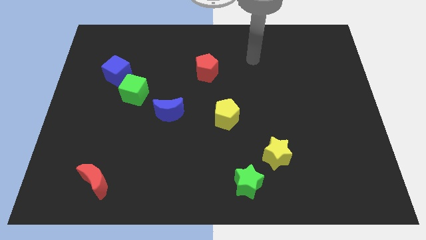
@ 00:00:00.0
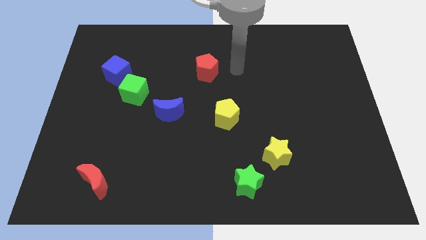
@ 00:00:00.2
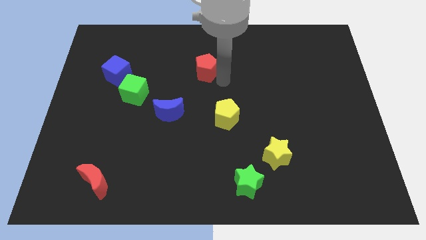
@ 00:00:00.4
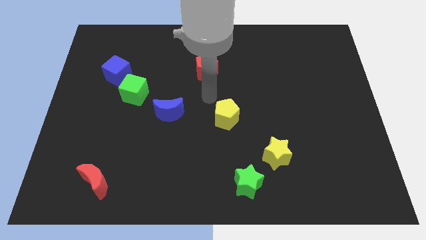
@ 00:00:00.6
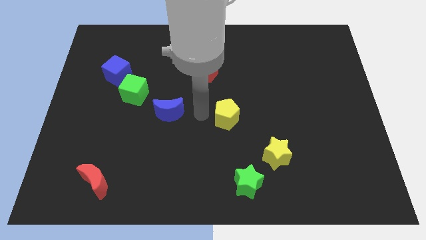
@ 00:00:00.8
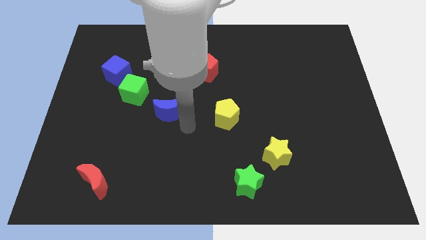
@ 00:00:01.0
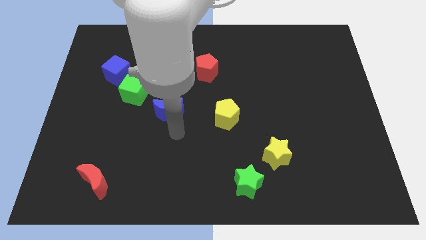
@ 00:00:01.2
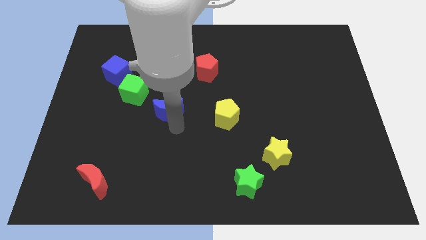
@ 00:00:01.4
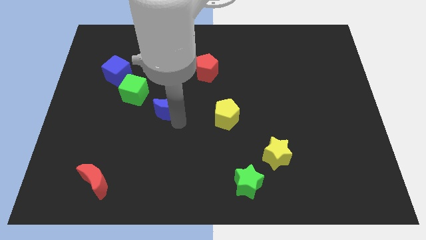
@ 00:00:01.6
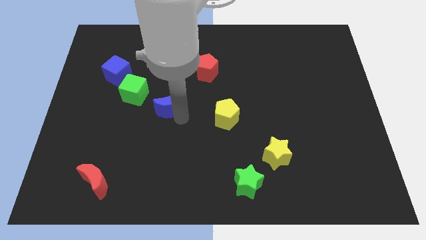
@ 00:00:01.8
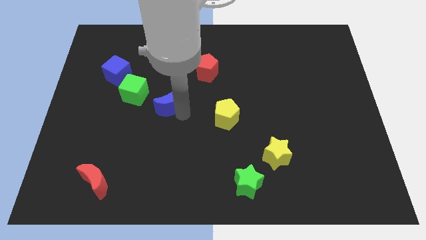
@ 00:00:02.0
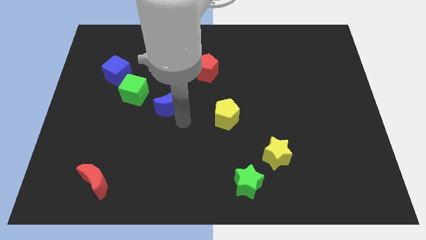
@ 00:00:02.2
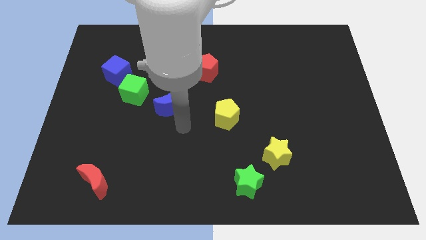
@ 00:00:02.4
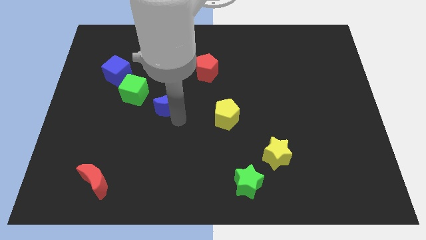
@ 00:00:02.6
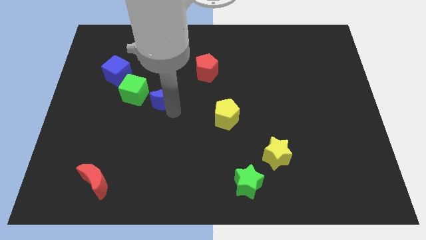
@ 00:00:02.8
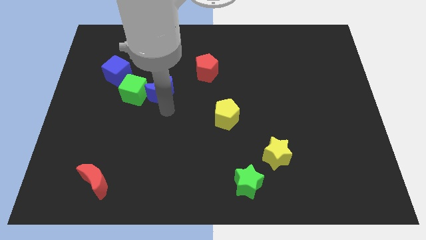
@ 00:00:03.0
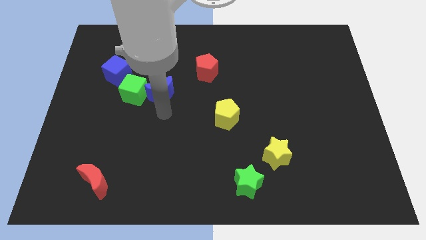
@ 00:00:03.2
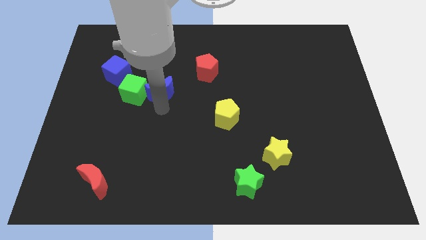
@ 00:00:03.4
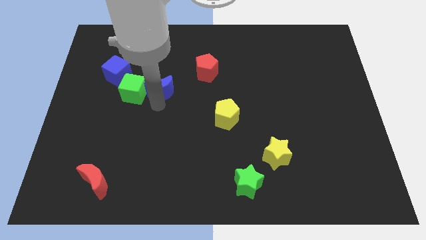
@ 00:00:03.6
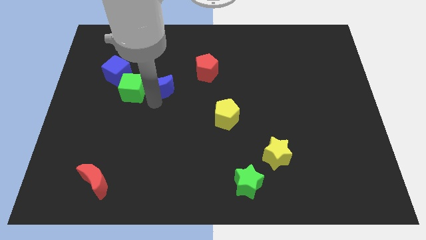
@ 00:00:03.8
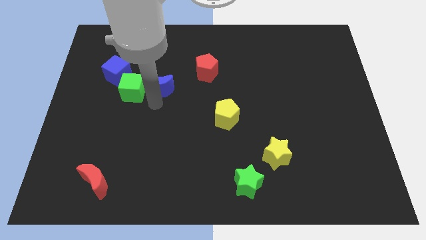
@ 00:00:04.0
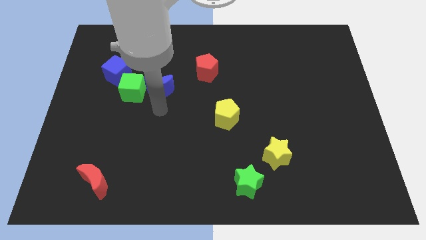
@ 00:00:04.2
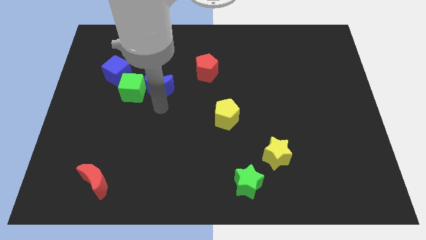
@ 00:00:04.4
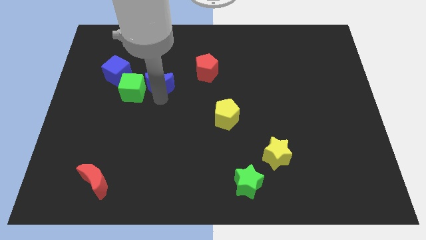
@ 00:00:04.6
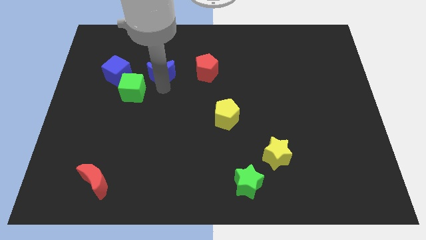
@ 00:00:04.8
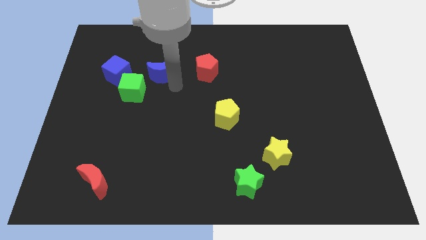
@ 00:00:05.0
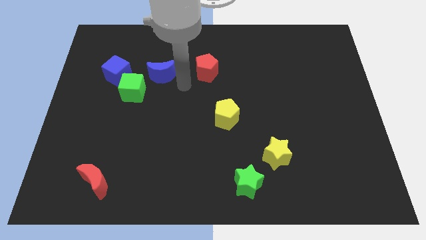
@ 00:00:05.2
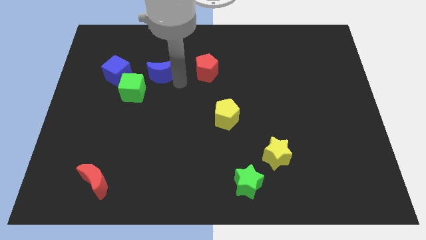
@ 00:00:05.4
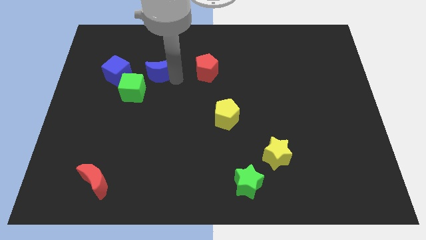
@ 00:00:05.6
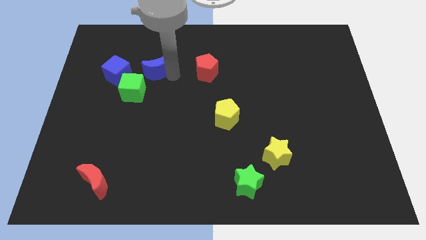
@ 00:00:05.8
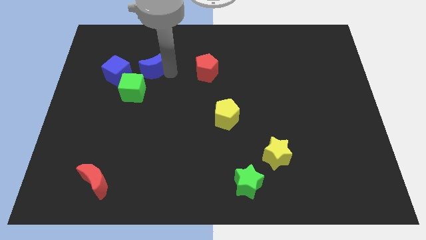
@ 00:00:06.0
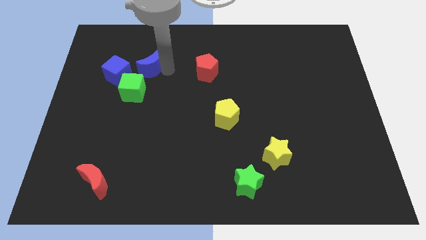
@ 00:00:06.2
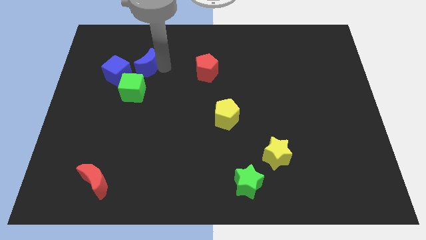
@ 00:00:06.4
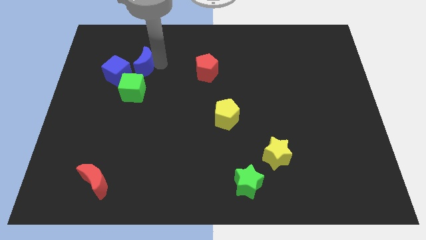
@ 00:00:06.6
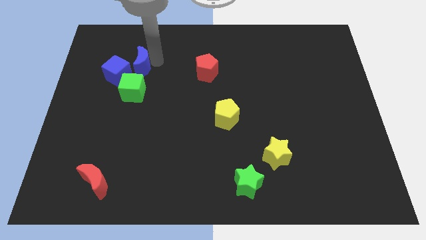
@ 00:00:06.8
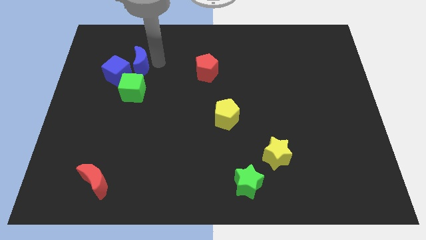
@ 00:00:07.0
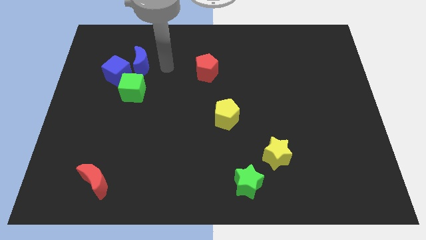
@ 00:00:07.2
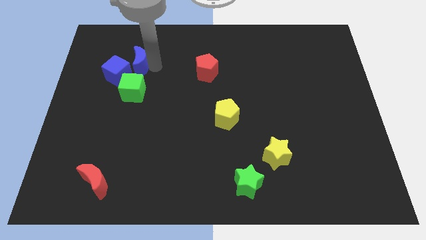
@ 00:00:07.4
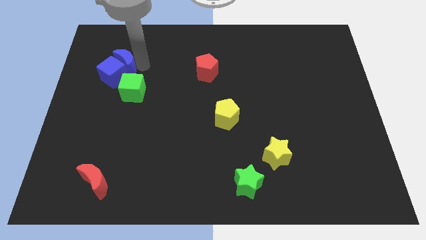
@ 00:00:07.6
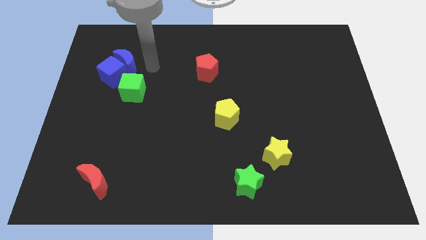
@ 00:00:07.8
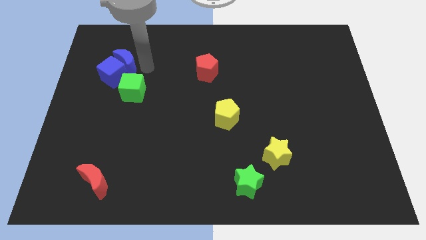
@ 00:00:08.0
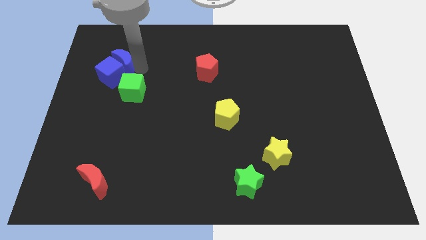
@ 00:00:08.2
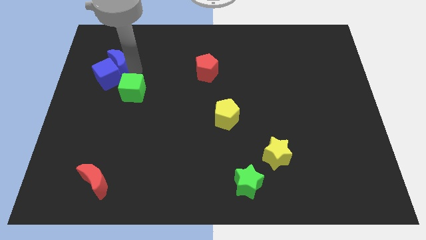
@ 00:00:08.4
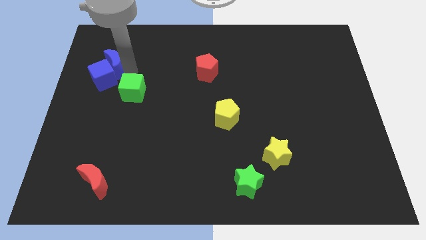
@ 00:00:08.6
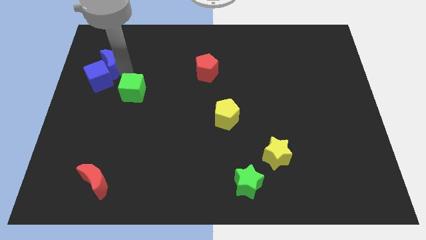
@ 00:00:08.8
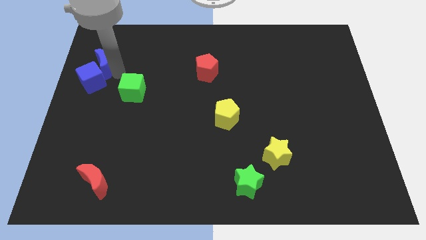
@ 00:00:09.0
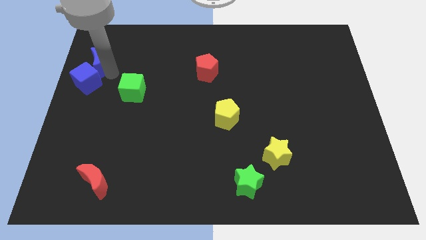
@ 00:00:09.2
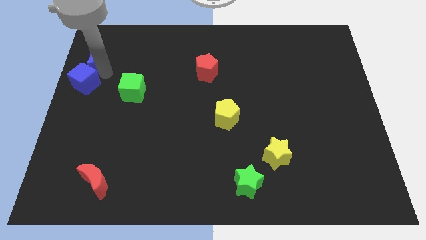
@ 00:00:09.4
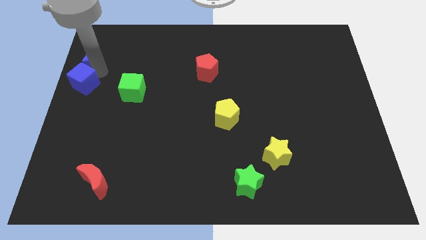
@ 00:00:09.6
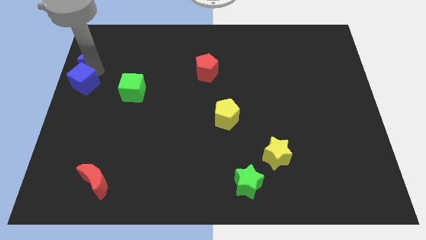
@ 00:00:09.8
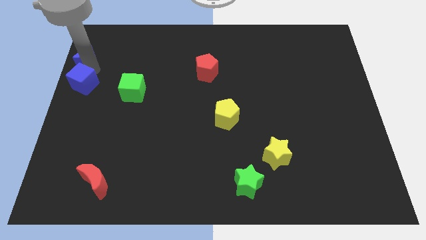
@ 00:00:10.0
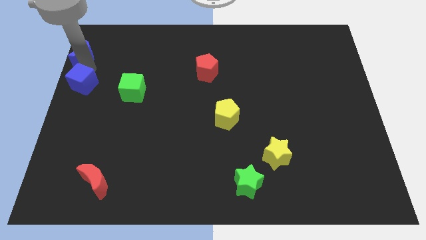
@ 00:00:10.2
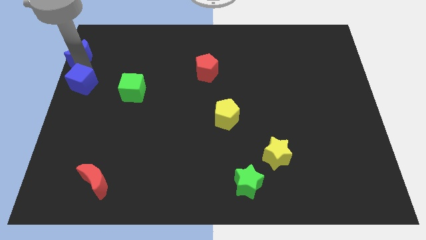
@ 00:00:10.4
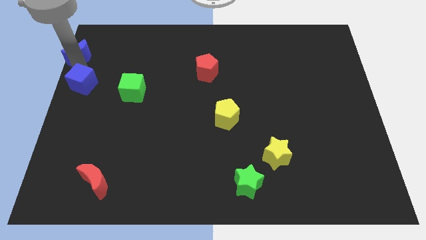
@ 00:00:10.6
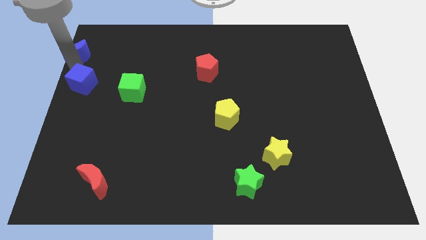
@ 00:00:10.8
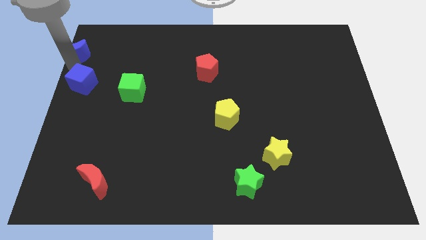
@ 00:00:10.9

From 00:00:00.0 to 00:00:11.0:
put the blue moon to the upper left corner
